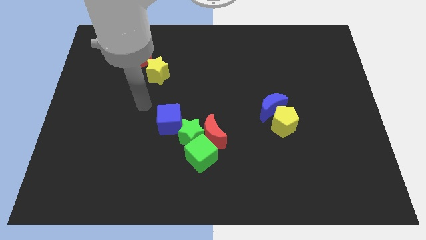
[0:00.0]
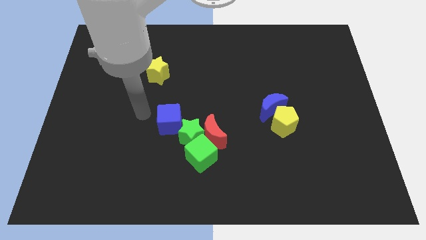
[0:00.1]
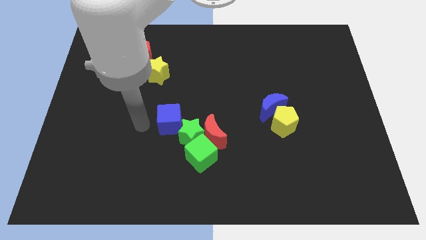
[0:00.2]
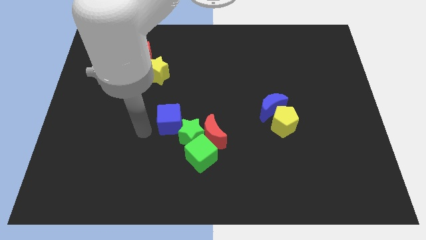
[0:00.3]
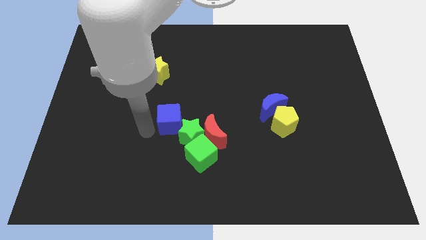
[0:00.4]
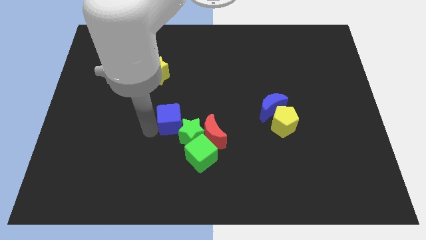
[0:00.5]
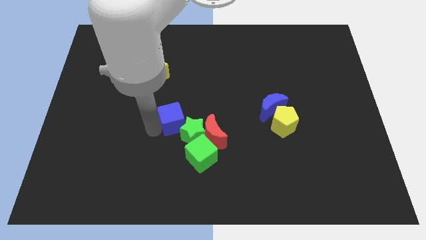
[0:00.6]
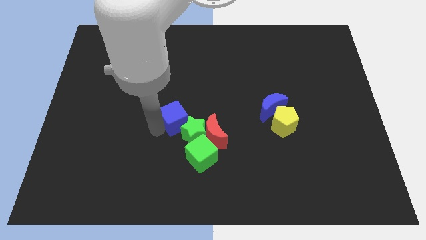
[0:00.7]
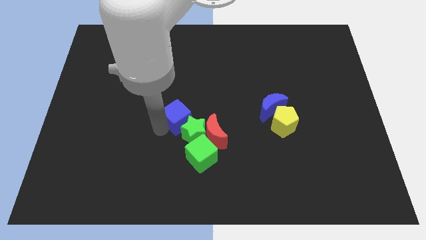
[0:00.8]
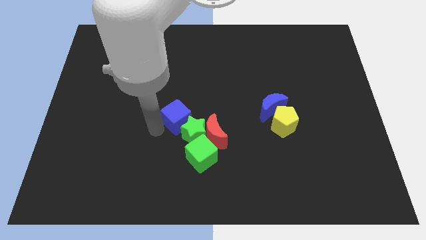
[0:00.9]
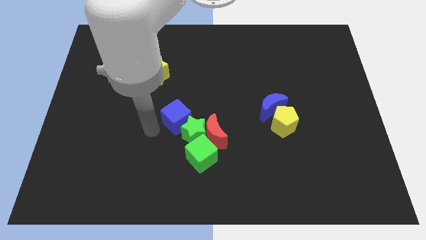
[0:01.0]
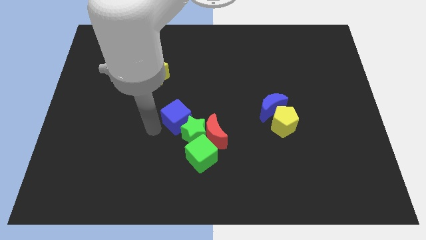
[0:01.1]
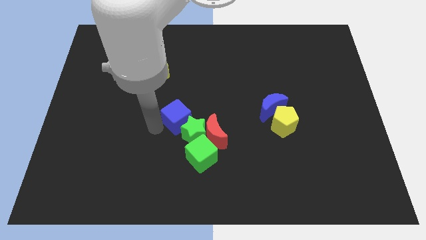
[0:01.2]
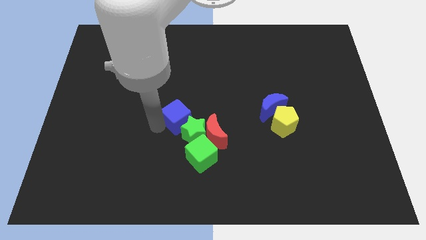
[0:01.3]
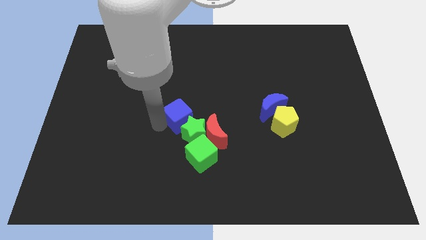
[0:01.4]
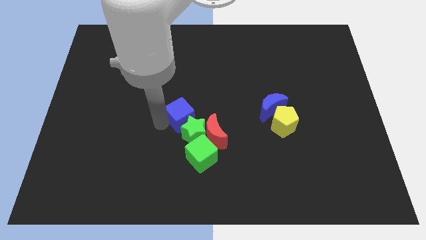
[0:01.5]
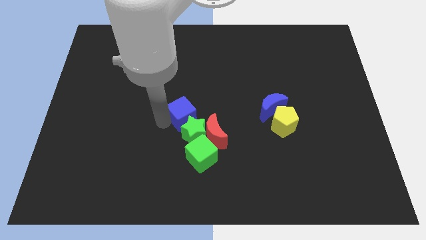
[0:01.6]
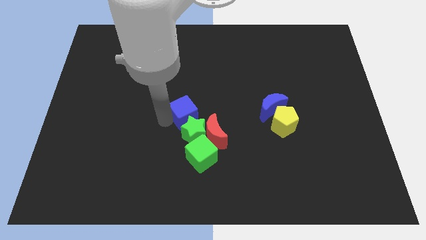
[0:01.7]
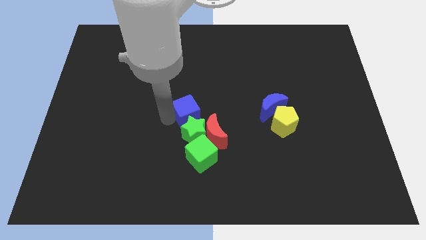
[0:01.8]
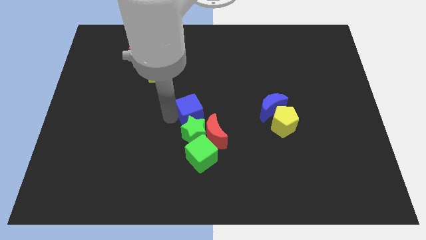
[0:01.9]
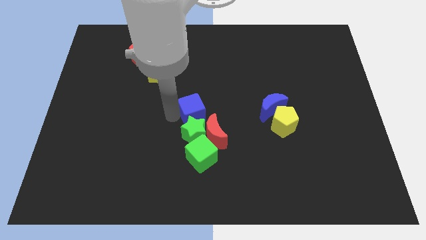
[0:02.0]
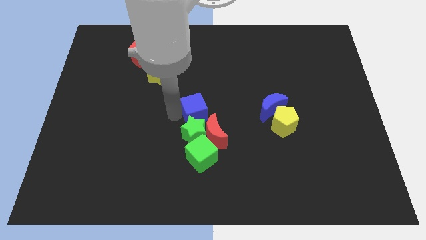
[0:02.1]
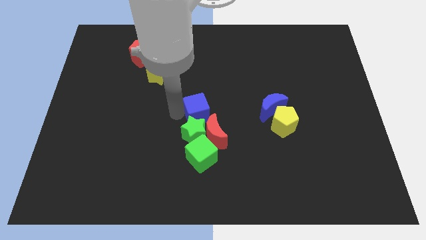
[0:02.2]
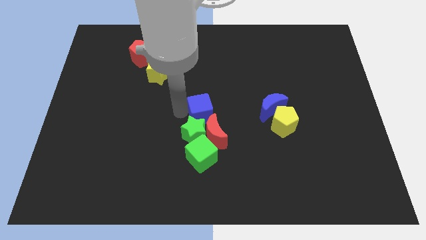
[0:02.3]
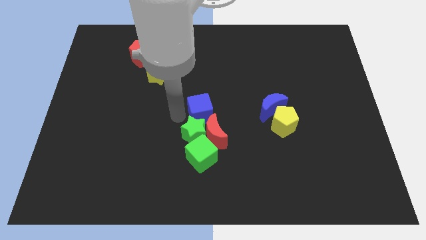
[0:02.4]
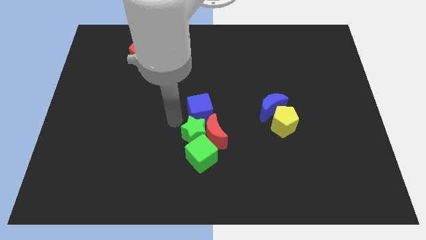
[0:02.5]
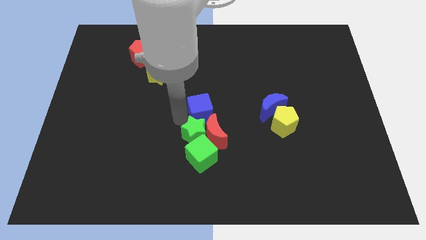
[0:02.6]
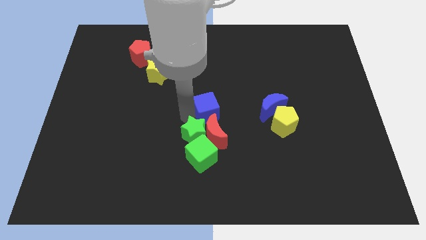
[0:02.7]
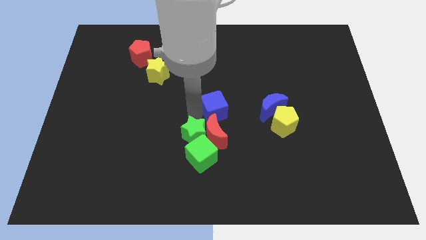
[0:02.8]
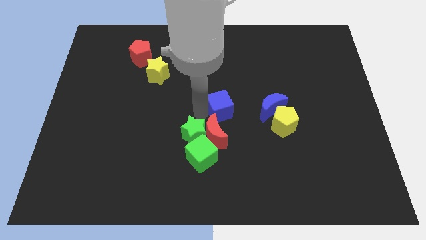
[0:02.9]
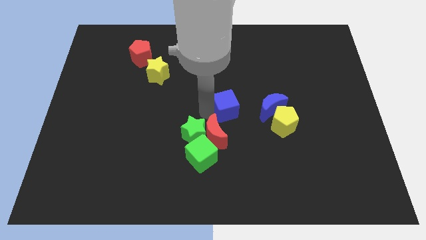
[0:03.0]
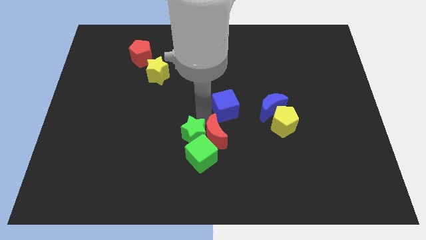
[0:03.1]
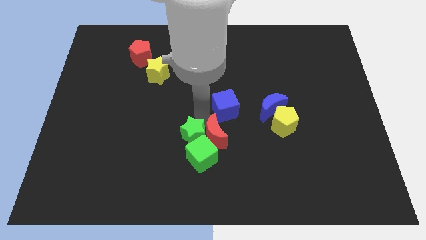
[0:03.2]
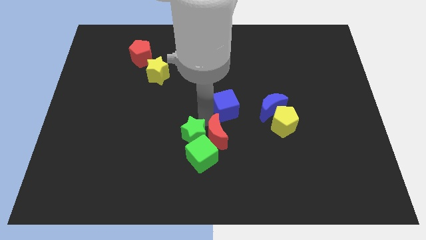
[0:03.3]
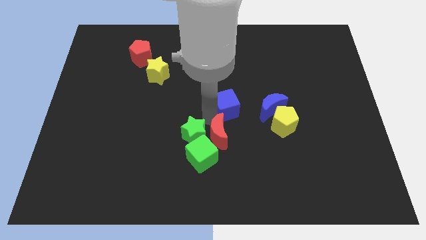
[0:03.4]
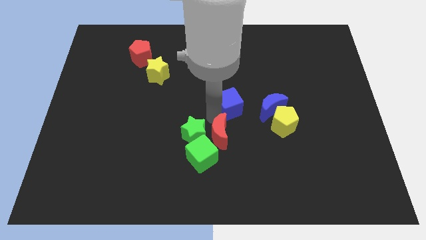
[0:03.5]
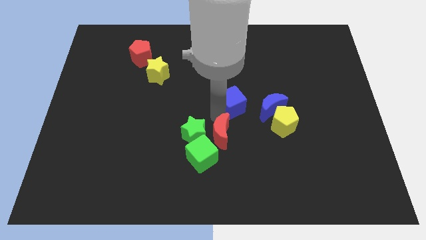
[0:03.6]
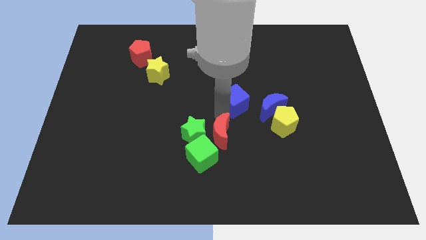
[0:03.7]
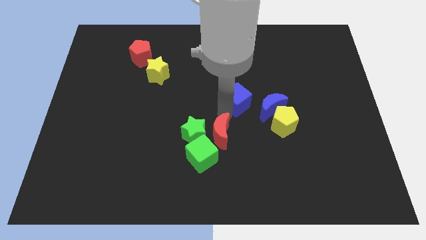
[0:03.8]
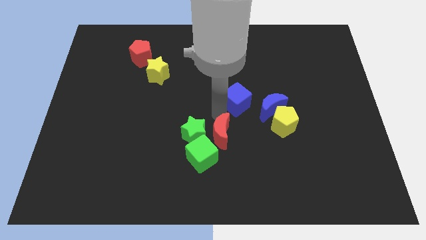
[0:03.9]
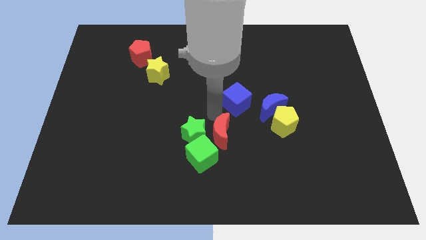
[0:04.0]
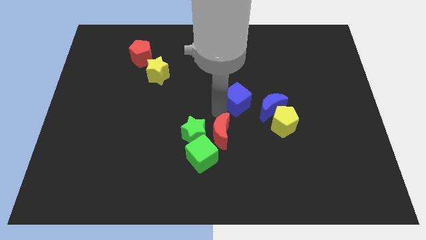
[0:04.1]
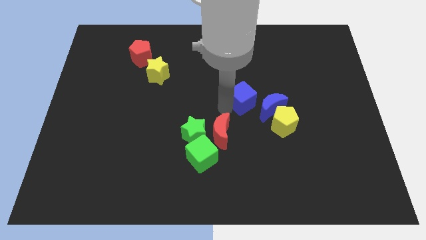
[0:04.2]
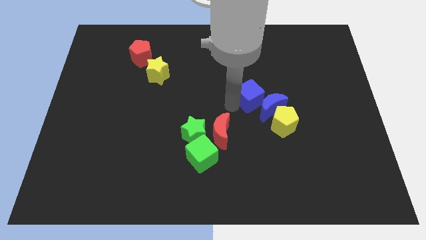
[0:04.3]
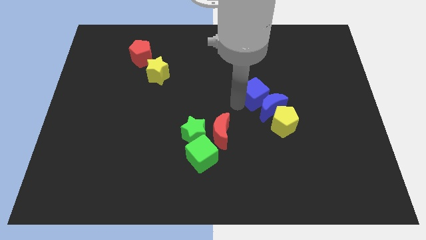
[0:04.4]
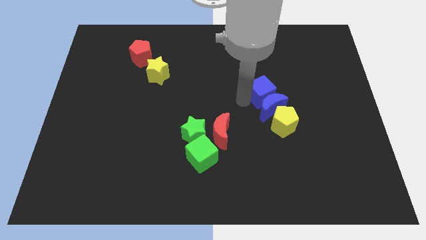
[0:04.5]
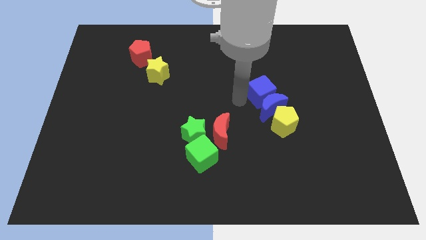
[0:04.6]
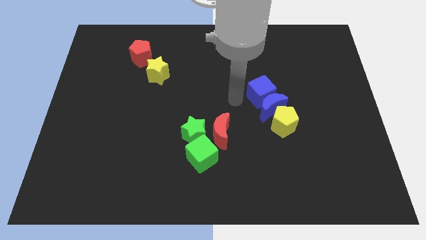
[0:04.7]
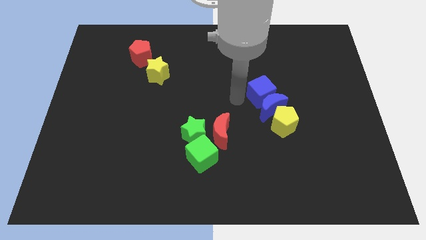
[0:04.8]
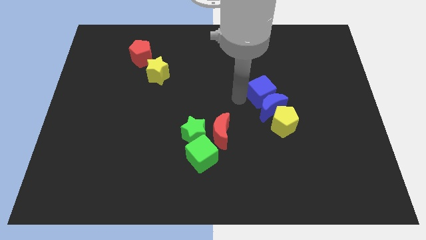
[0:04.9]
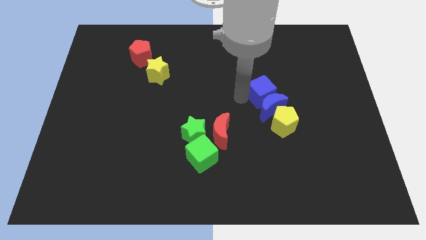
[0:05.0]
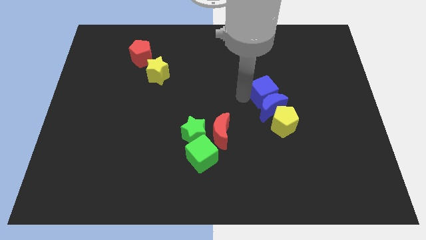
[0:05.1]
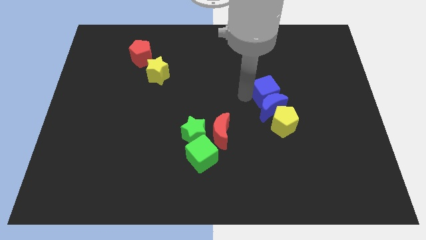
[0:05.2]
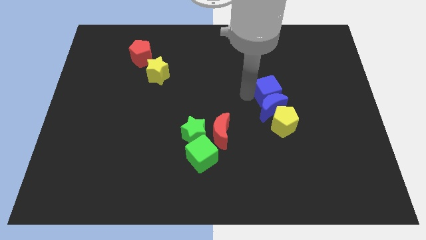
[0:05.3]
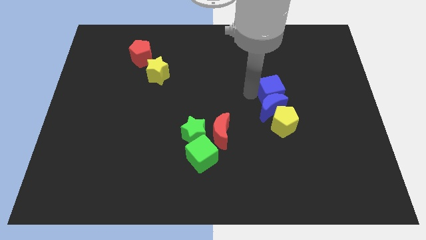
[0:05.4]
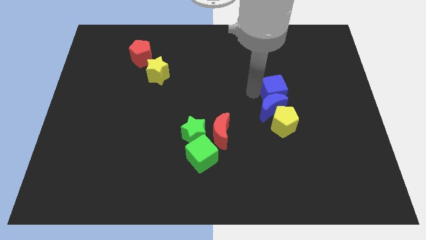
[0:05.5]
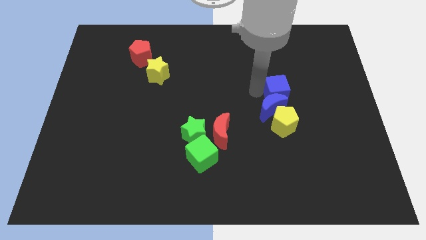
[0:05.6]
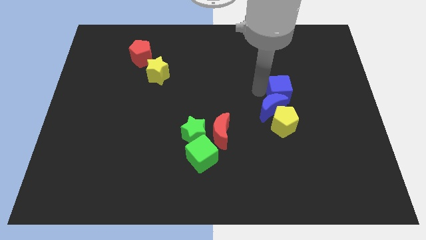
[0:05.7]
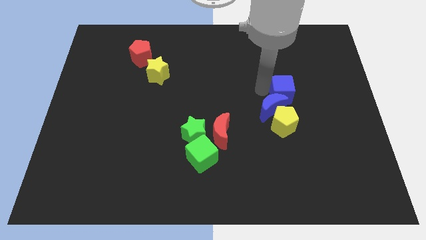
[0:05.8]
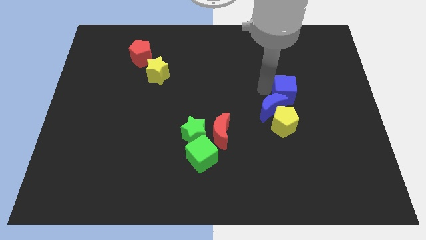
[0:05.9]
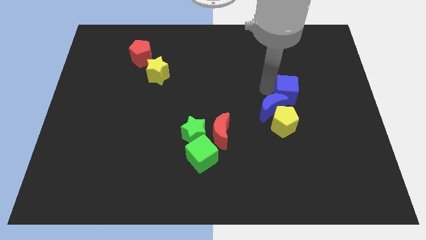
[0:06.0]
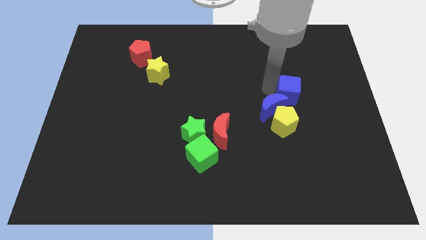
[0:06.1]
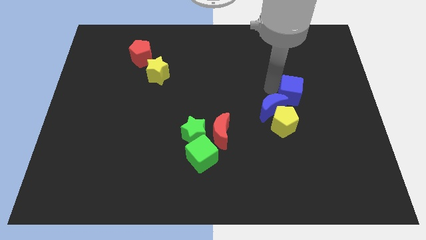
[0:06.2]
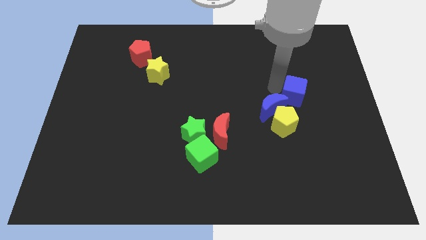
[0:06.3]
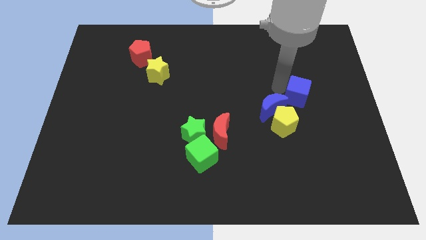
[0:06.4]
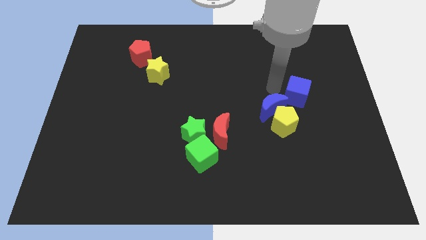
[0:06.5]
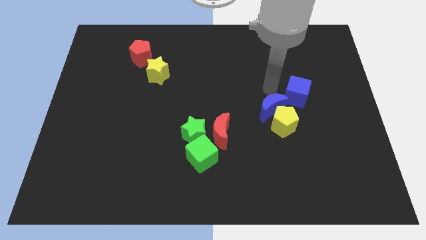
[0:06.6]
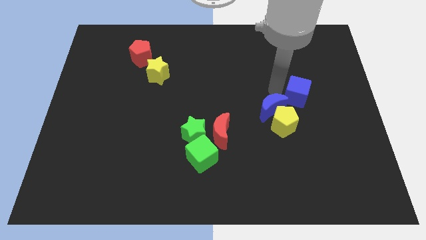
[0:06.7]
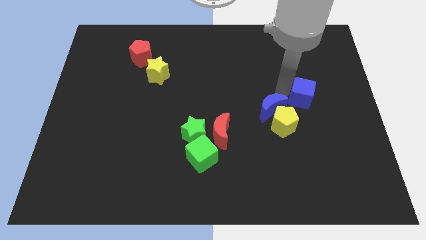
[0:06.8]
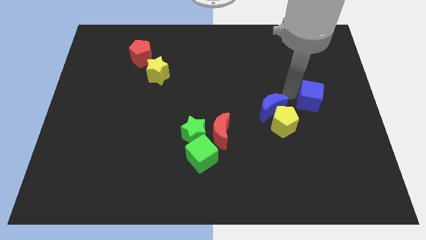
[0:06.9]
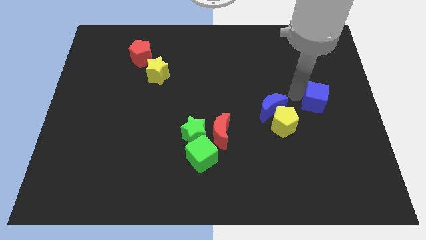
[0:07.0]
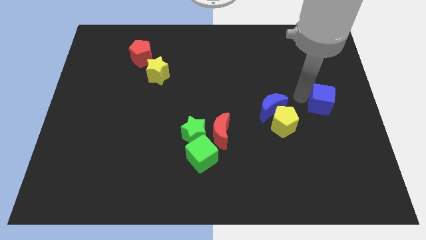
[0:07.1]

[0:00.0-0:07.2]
put the blue cube to the center right
